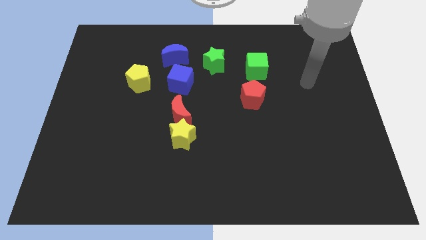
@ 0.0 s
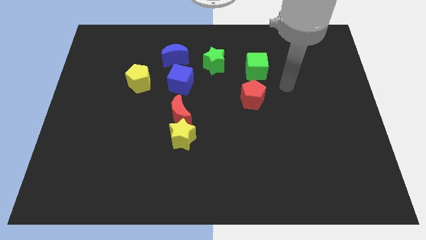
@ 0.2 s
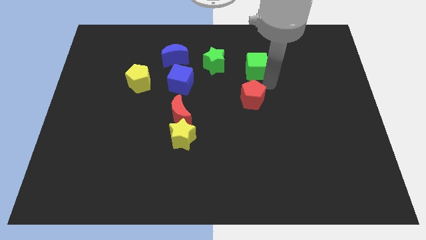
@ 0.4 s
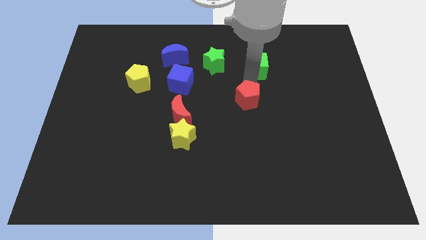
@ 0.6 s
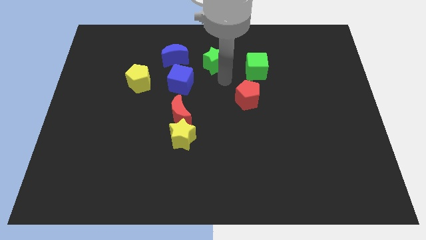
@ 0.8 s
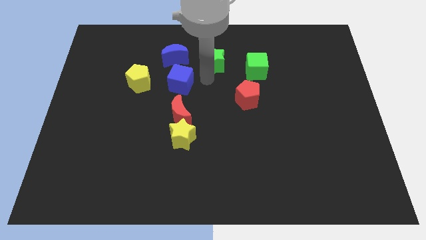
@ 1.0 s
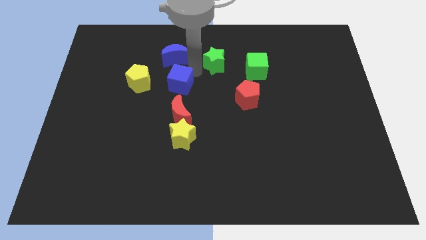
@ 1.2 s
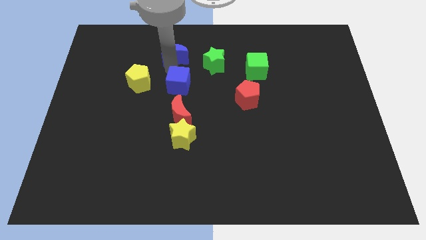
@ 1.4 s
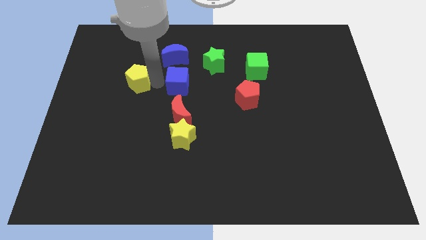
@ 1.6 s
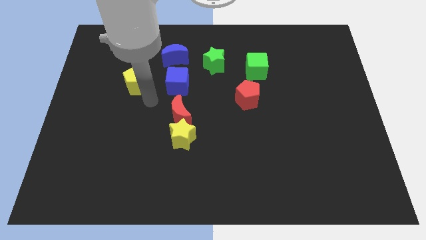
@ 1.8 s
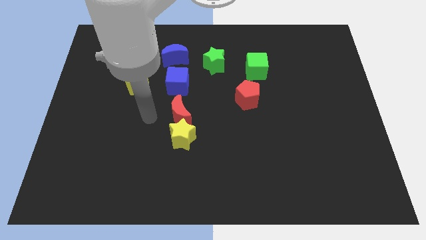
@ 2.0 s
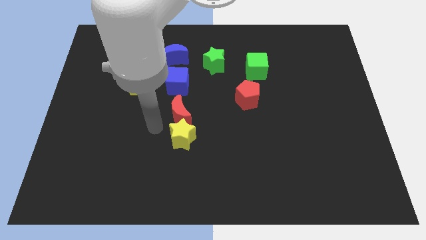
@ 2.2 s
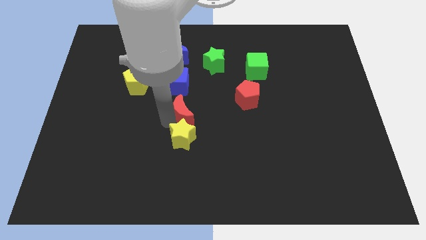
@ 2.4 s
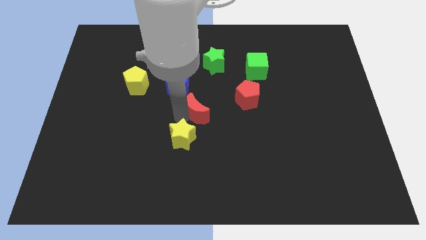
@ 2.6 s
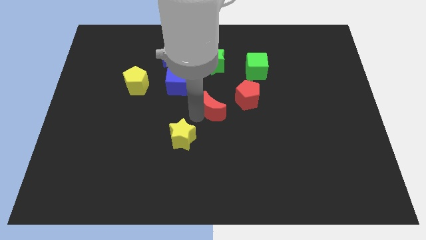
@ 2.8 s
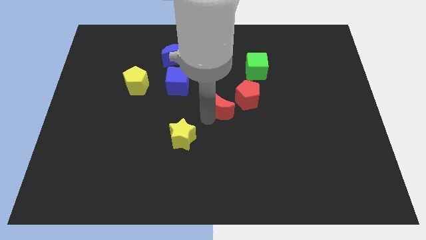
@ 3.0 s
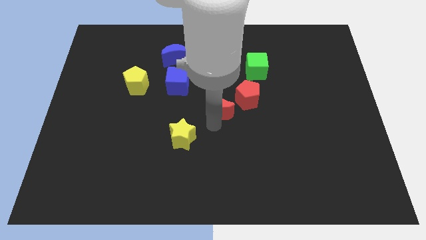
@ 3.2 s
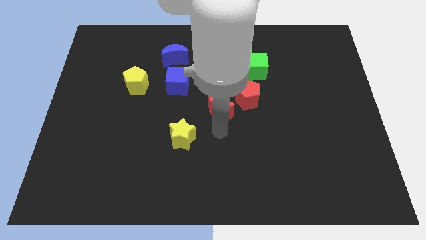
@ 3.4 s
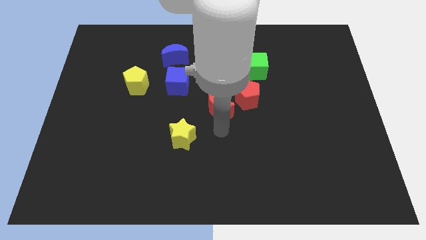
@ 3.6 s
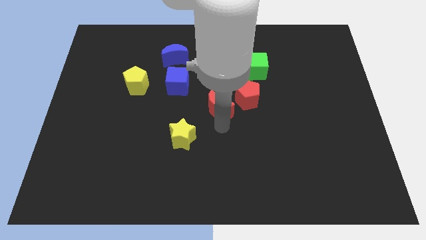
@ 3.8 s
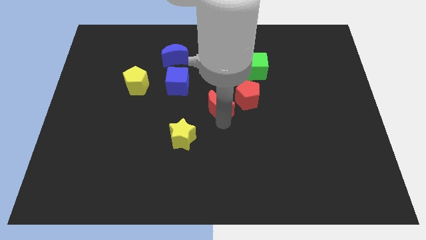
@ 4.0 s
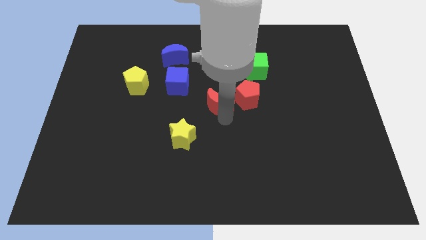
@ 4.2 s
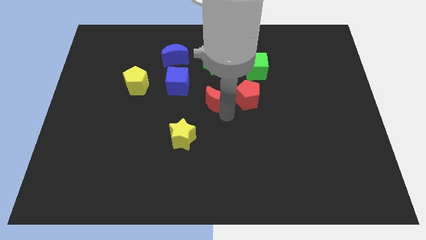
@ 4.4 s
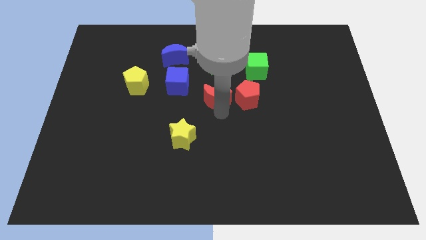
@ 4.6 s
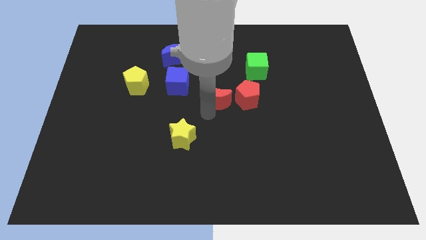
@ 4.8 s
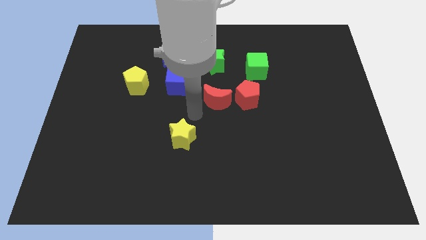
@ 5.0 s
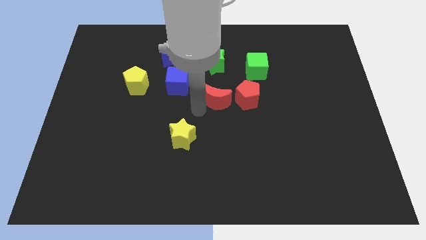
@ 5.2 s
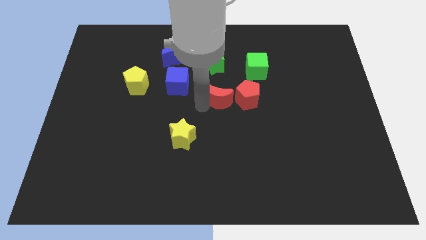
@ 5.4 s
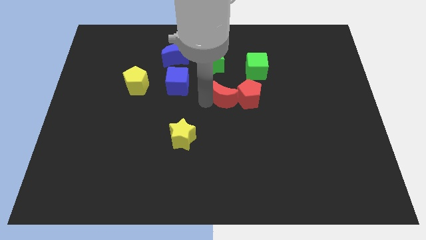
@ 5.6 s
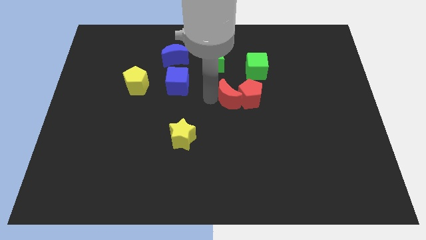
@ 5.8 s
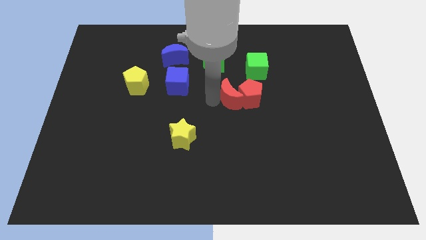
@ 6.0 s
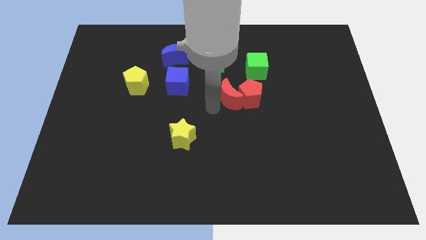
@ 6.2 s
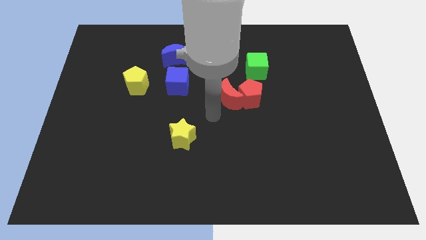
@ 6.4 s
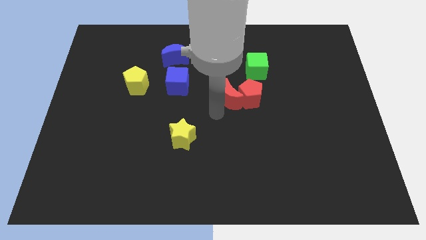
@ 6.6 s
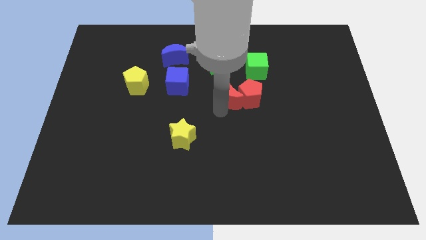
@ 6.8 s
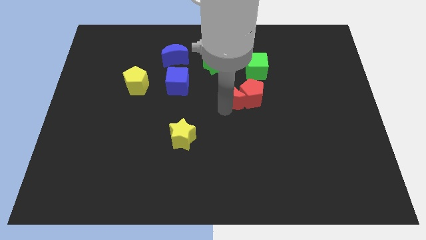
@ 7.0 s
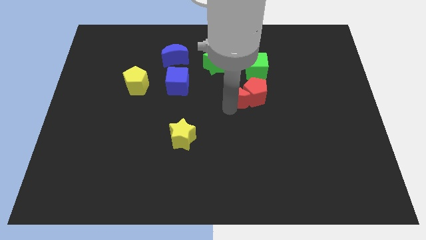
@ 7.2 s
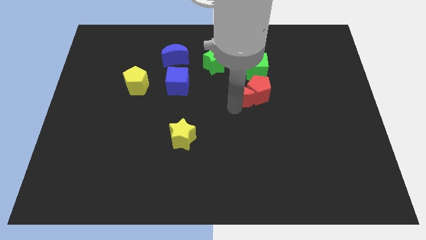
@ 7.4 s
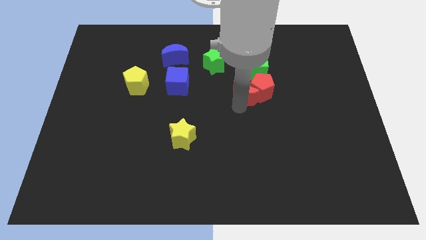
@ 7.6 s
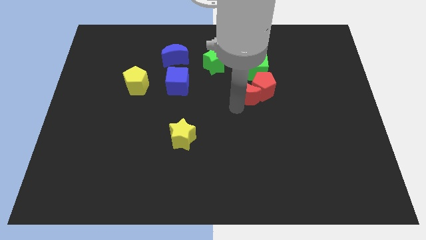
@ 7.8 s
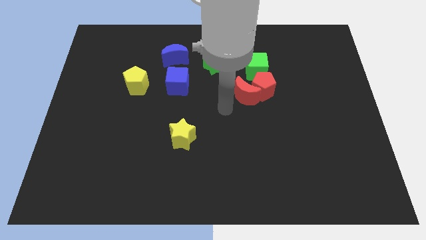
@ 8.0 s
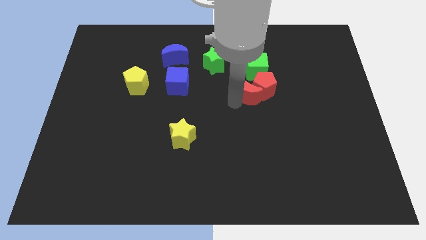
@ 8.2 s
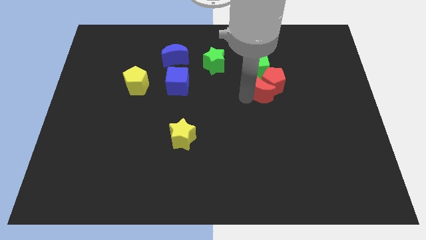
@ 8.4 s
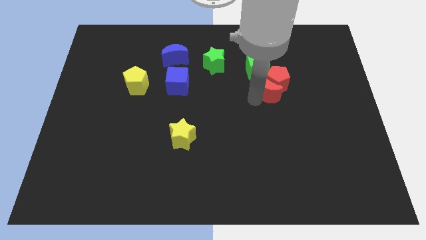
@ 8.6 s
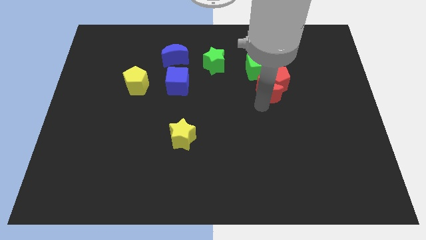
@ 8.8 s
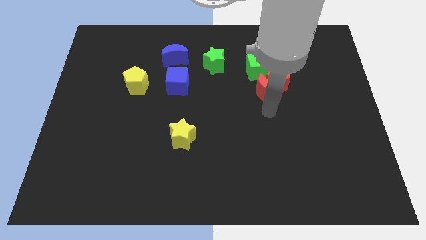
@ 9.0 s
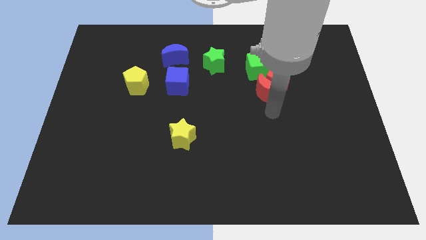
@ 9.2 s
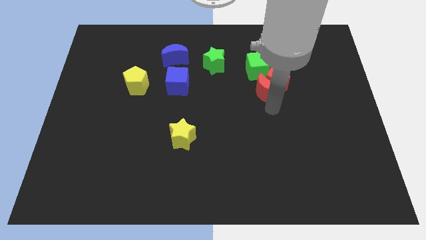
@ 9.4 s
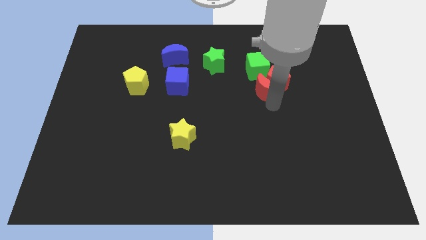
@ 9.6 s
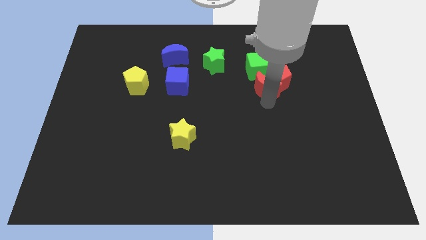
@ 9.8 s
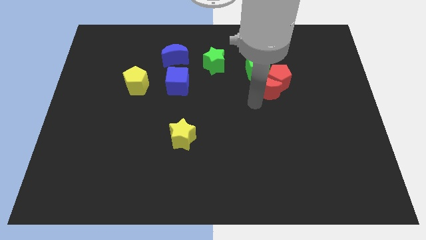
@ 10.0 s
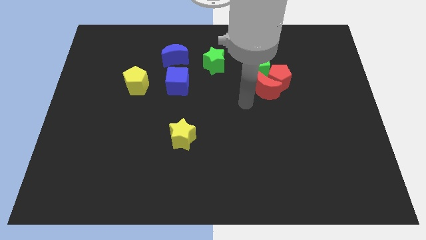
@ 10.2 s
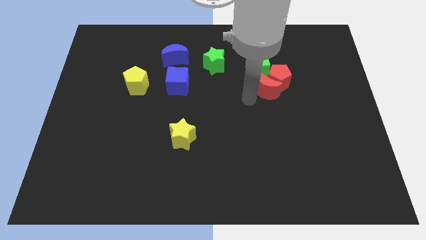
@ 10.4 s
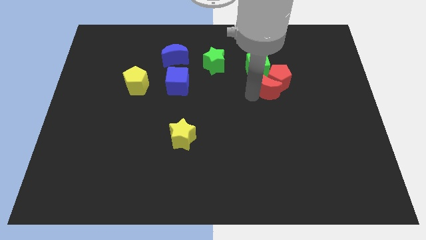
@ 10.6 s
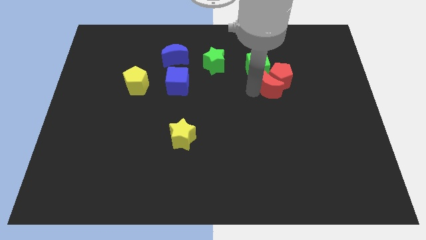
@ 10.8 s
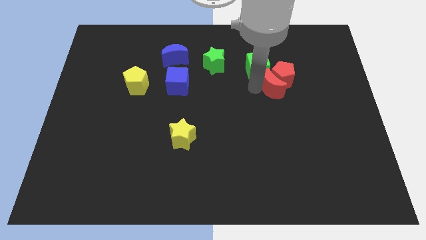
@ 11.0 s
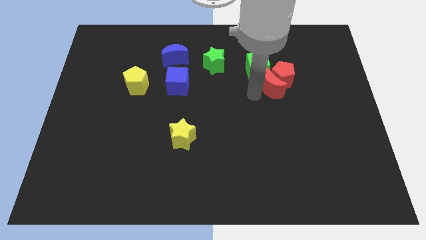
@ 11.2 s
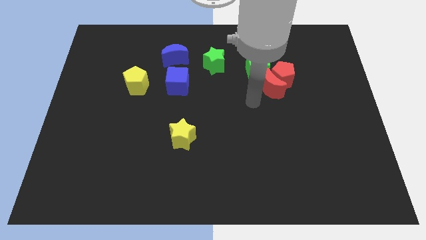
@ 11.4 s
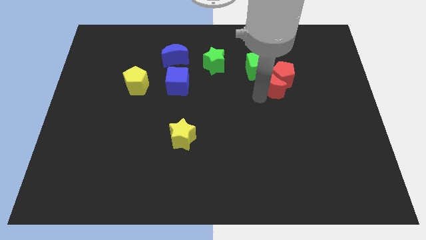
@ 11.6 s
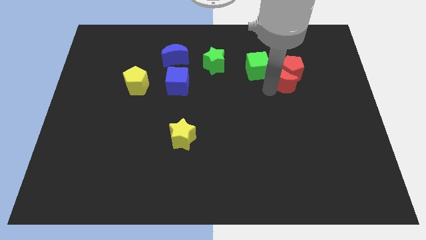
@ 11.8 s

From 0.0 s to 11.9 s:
push the red moon just right of the green cube

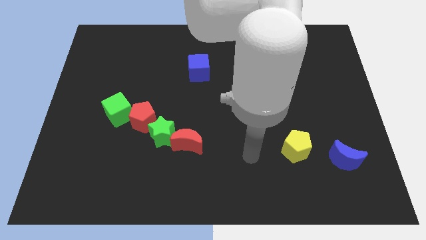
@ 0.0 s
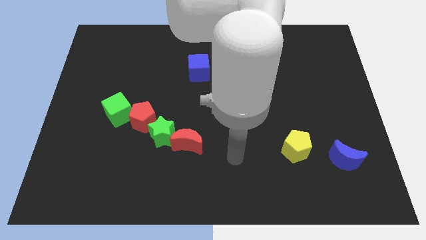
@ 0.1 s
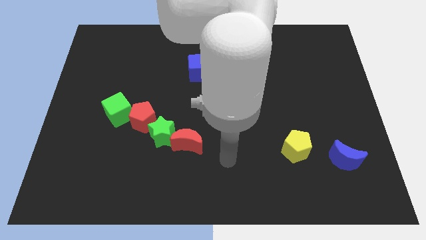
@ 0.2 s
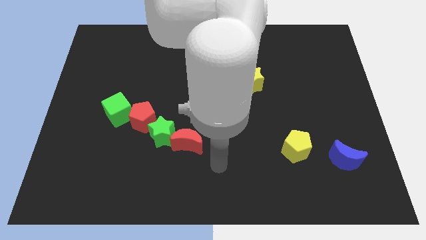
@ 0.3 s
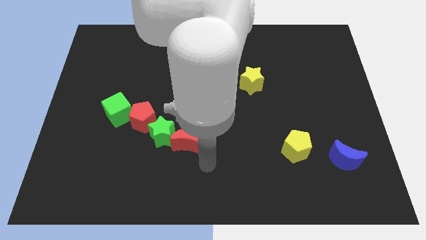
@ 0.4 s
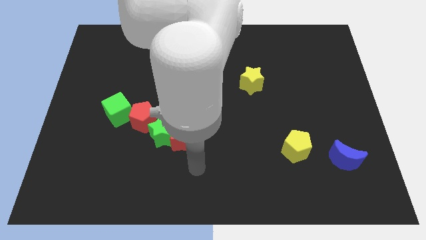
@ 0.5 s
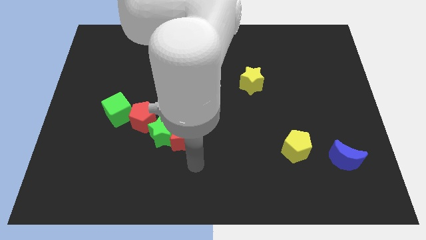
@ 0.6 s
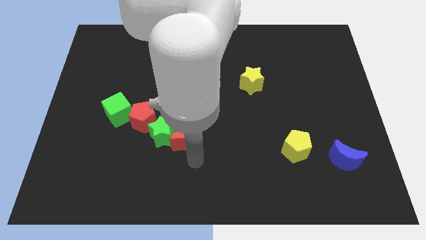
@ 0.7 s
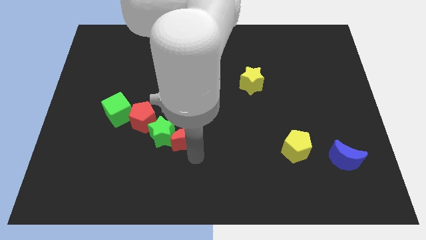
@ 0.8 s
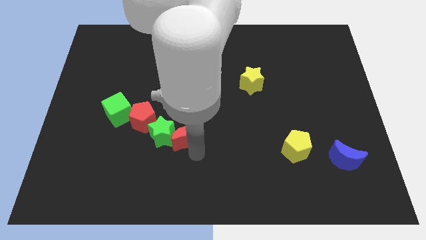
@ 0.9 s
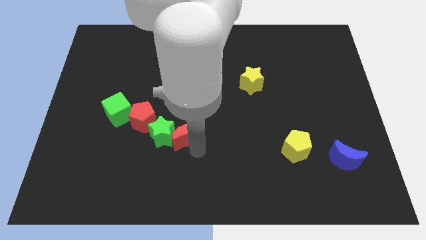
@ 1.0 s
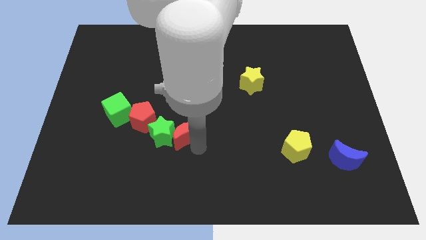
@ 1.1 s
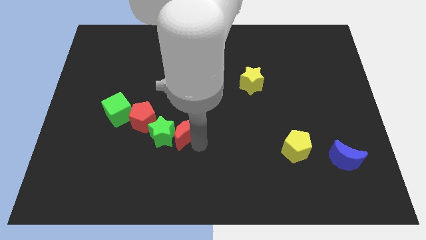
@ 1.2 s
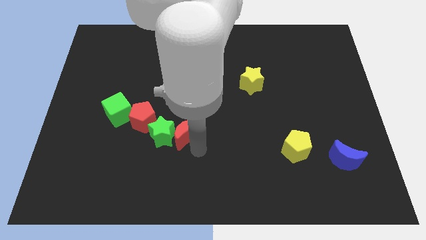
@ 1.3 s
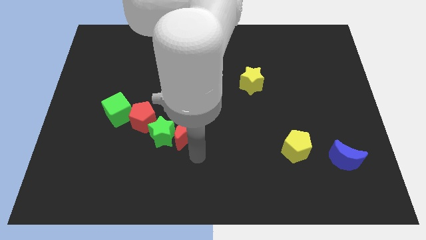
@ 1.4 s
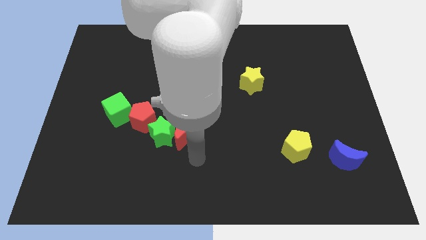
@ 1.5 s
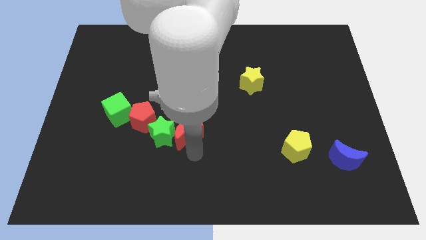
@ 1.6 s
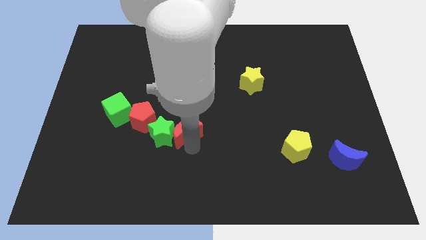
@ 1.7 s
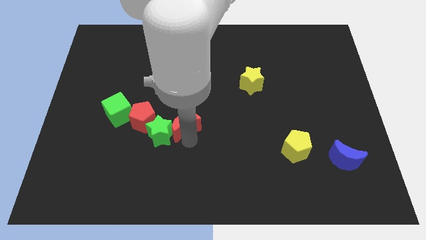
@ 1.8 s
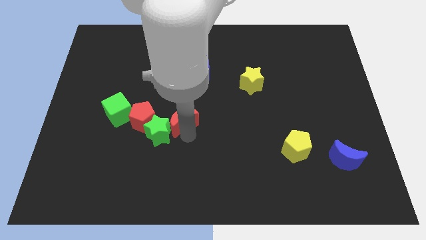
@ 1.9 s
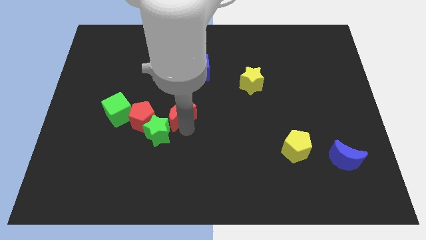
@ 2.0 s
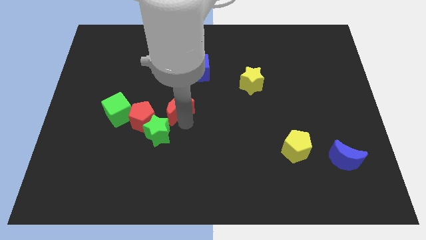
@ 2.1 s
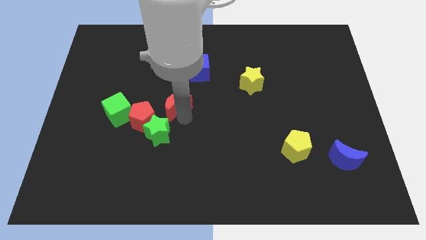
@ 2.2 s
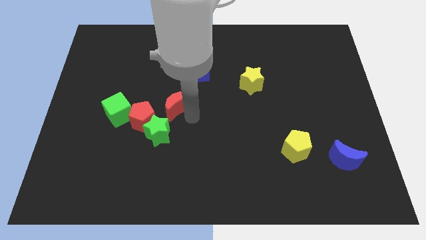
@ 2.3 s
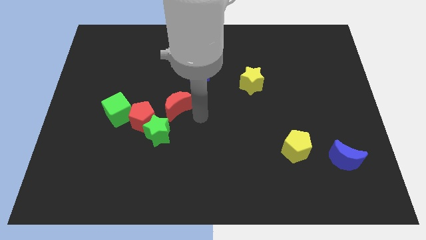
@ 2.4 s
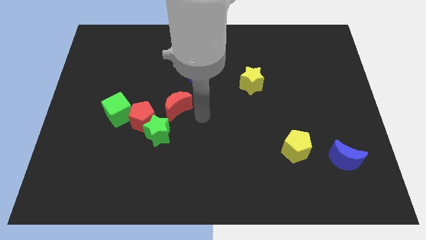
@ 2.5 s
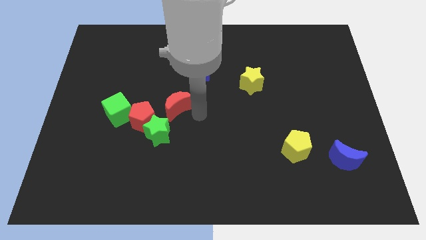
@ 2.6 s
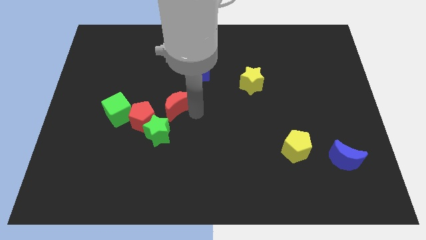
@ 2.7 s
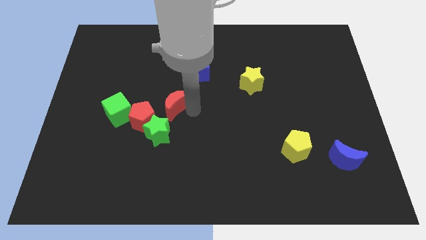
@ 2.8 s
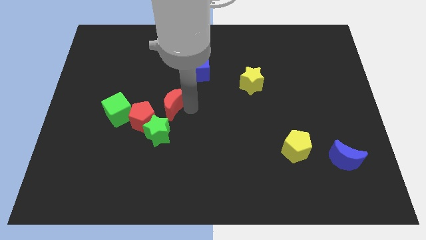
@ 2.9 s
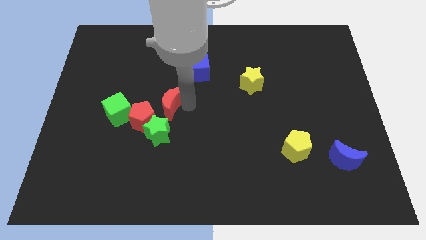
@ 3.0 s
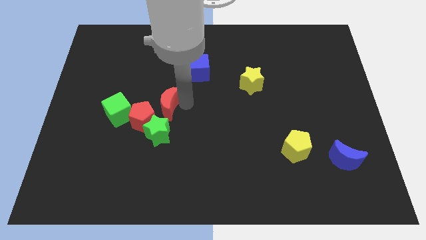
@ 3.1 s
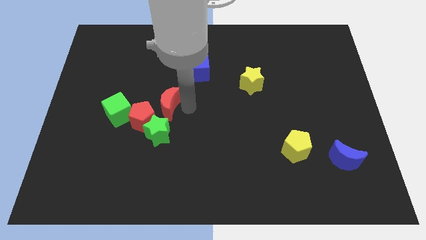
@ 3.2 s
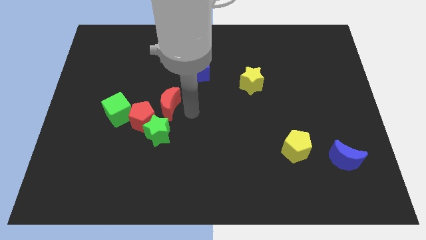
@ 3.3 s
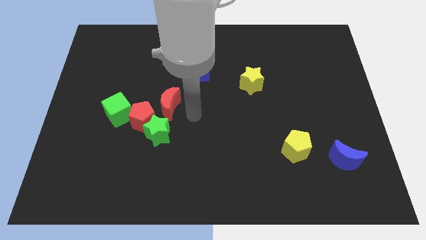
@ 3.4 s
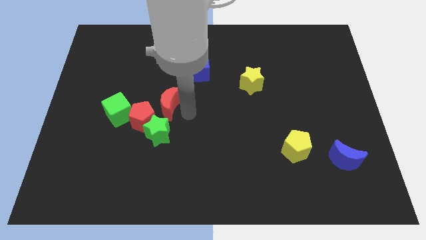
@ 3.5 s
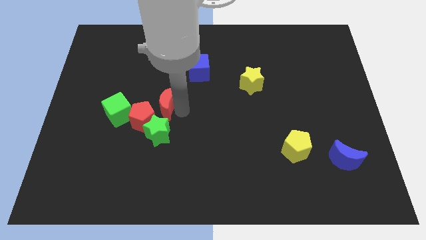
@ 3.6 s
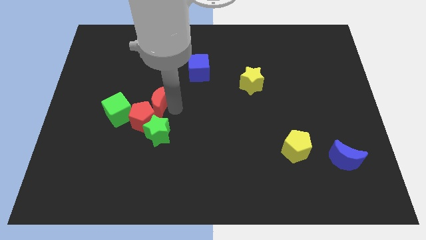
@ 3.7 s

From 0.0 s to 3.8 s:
move the red moon diagonally up and to the right of the green cube
